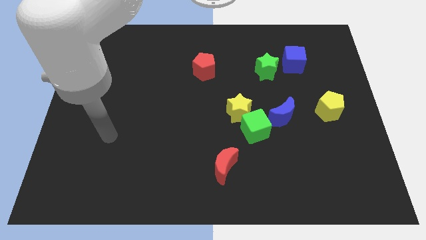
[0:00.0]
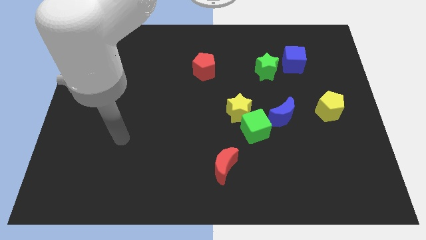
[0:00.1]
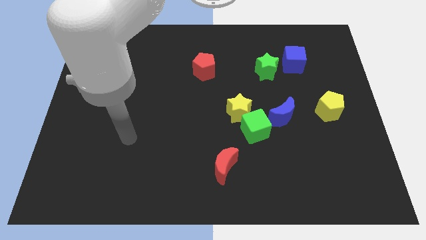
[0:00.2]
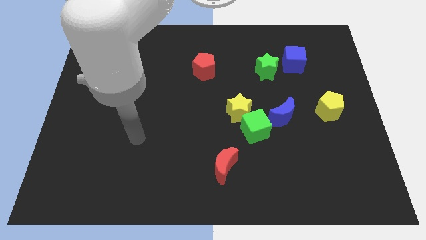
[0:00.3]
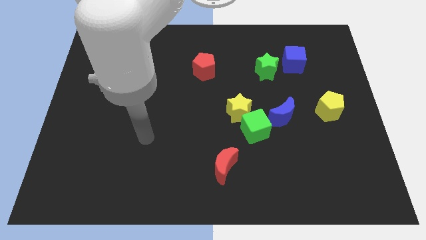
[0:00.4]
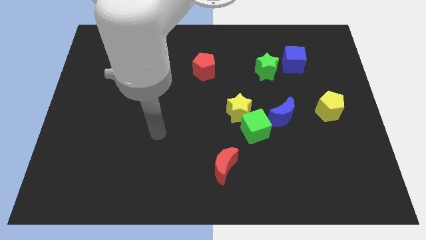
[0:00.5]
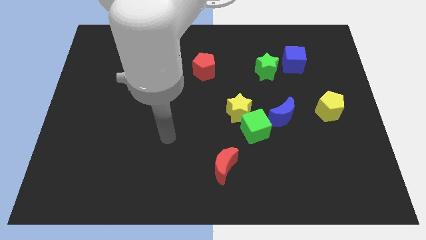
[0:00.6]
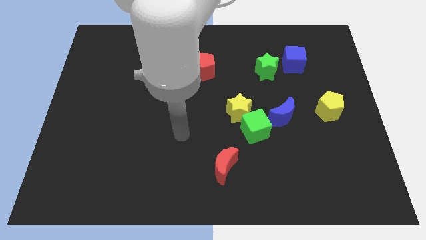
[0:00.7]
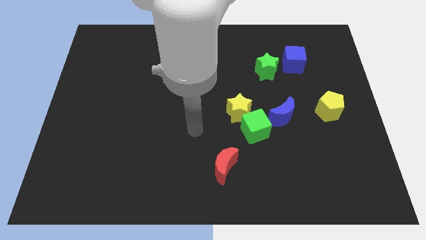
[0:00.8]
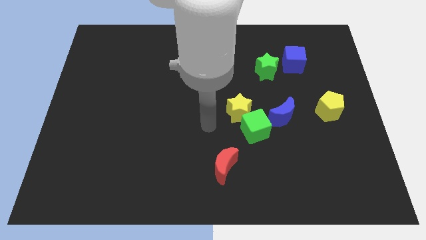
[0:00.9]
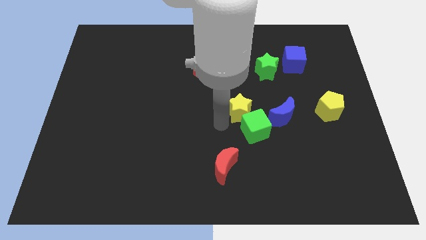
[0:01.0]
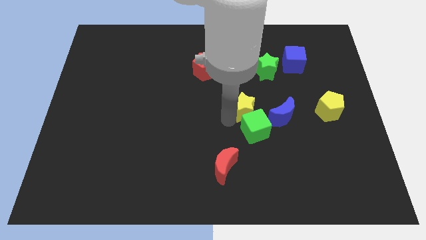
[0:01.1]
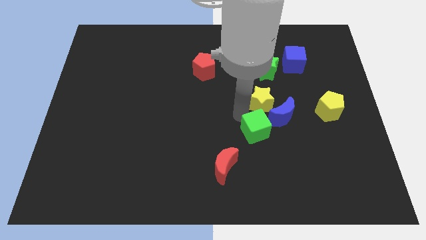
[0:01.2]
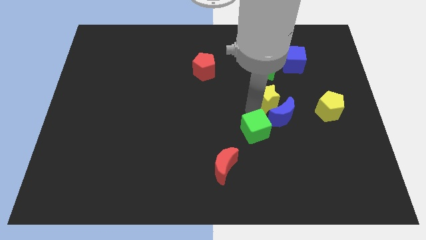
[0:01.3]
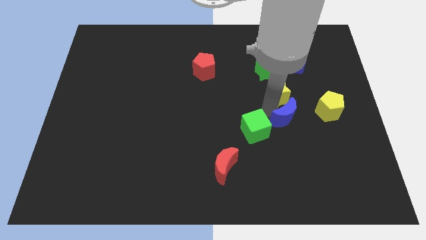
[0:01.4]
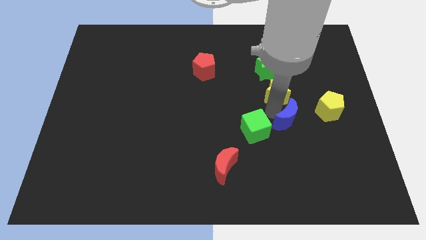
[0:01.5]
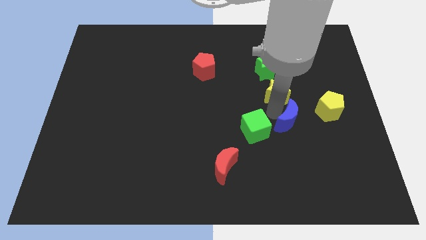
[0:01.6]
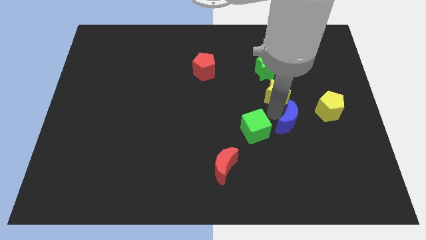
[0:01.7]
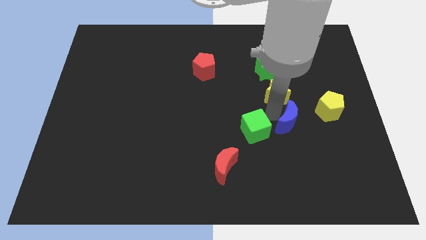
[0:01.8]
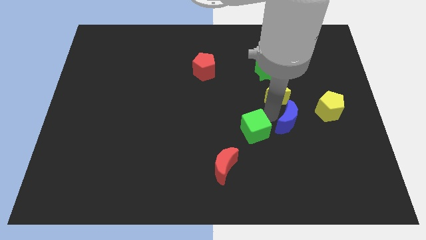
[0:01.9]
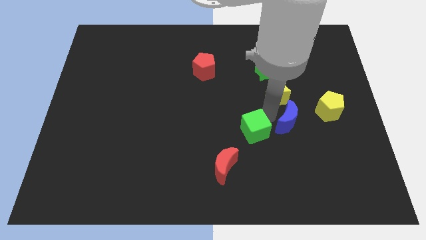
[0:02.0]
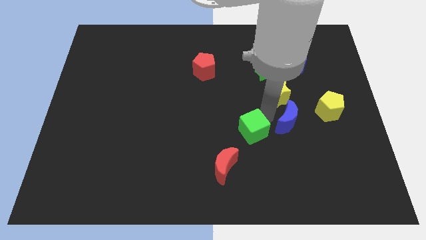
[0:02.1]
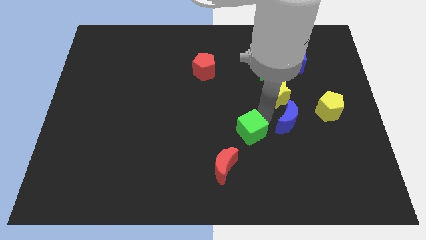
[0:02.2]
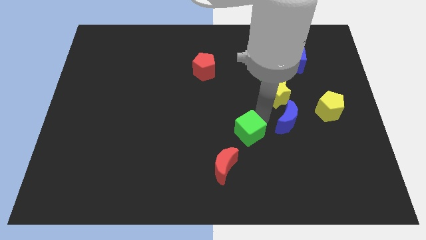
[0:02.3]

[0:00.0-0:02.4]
pull the green cube apart from the yellow star and blue moon

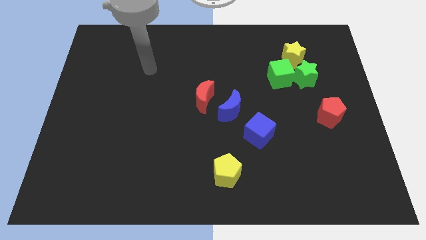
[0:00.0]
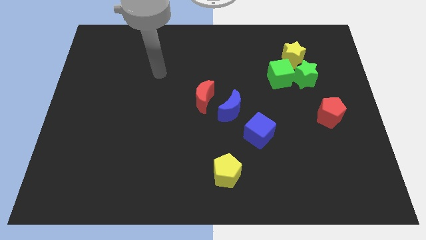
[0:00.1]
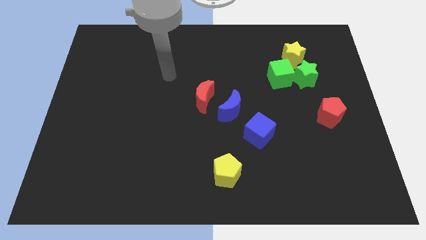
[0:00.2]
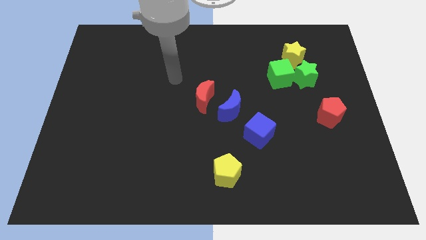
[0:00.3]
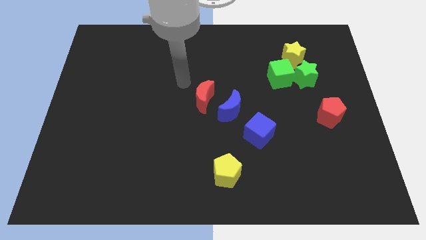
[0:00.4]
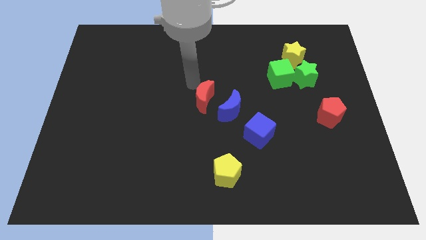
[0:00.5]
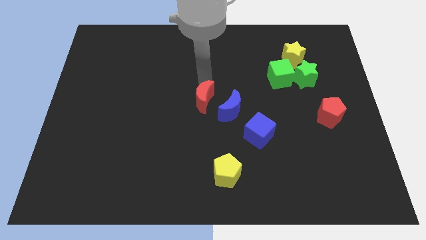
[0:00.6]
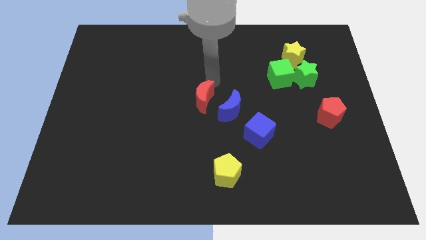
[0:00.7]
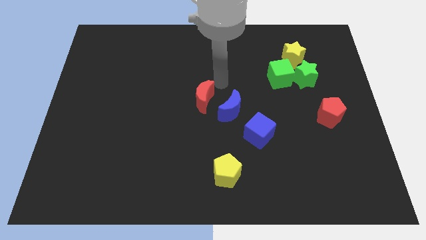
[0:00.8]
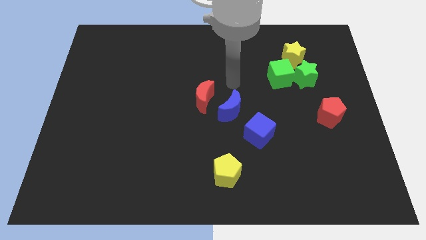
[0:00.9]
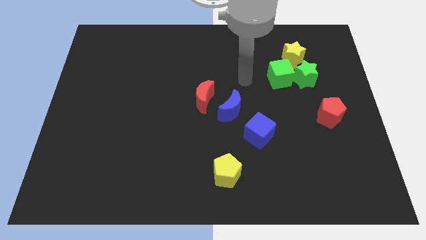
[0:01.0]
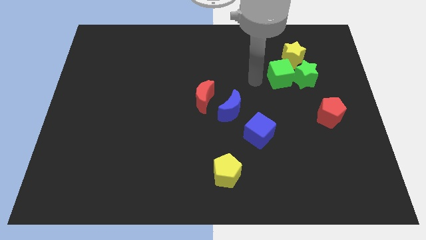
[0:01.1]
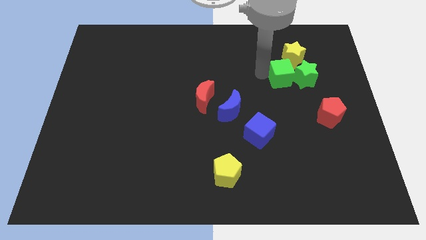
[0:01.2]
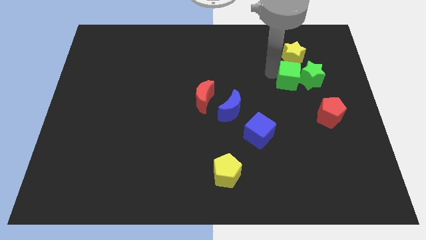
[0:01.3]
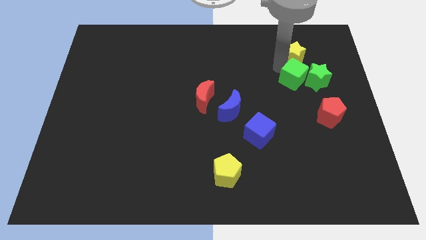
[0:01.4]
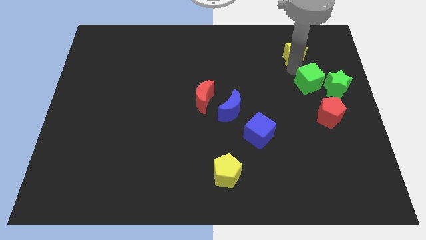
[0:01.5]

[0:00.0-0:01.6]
pull the green star apart from the green cube and yellow star

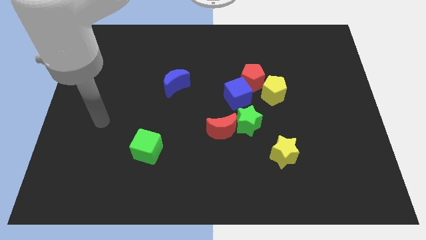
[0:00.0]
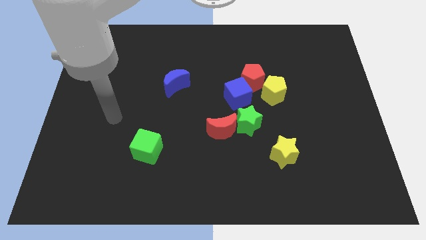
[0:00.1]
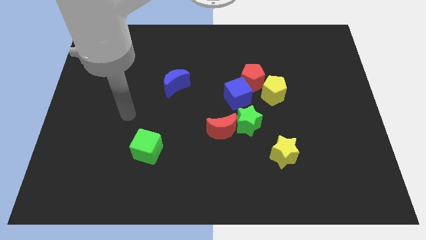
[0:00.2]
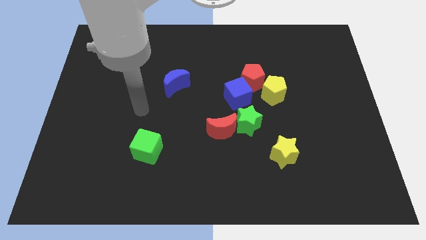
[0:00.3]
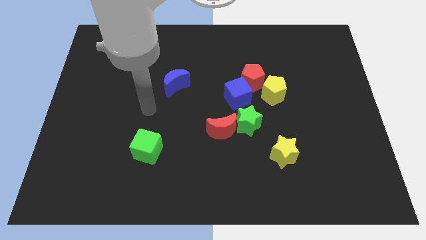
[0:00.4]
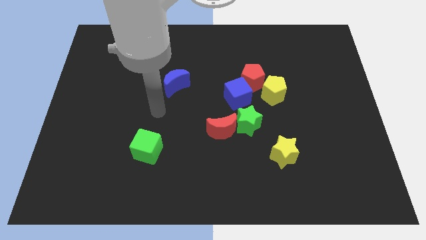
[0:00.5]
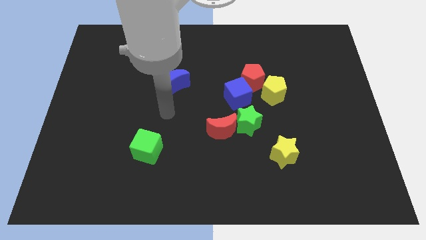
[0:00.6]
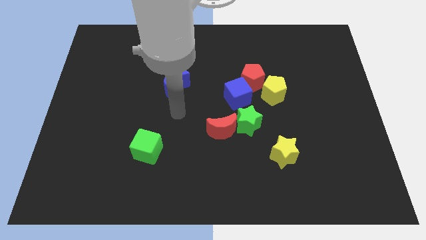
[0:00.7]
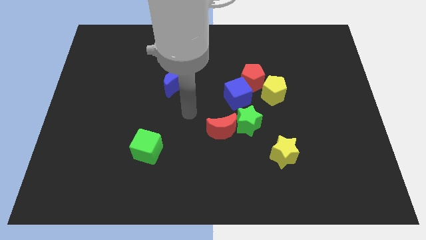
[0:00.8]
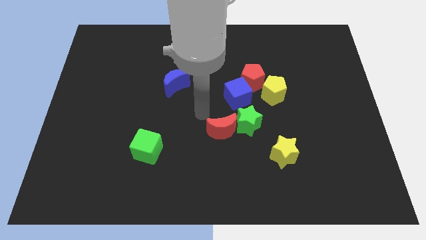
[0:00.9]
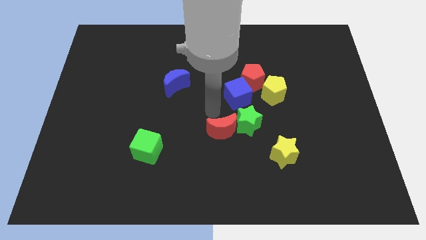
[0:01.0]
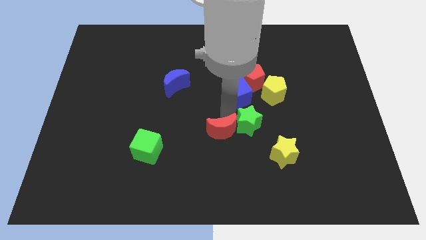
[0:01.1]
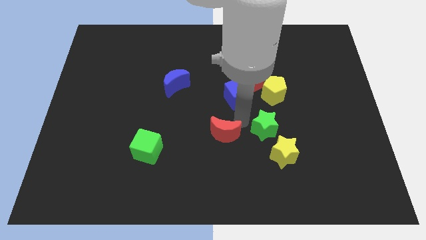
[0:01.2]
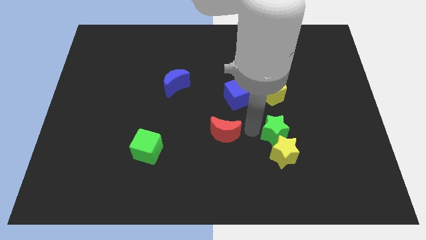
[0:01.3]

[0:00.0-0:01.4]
pull the red moon apart from the green star

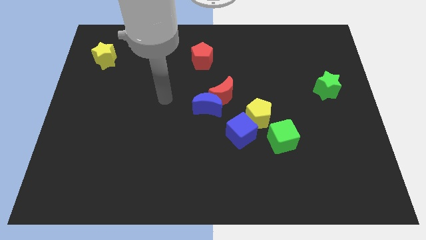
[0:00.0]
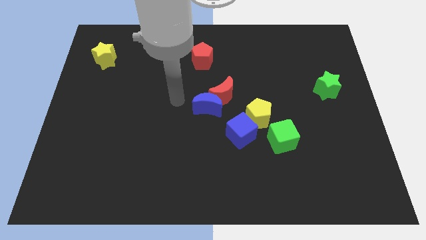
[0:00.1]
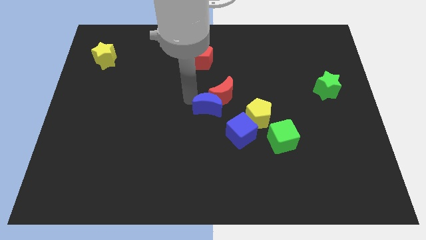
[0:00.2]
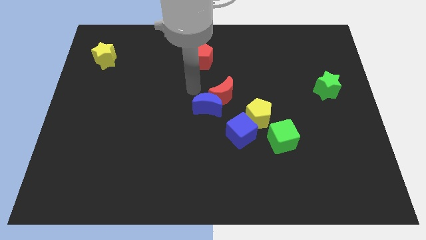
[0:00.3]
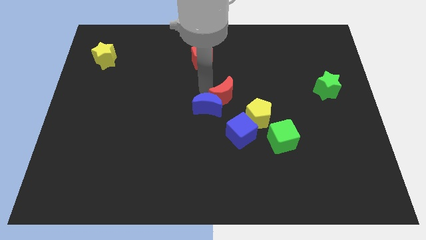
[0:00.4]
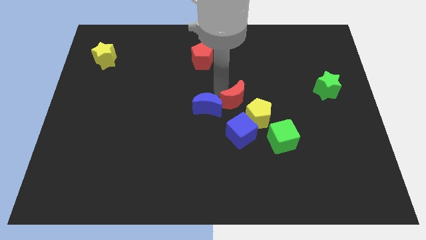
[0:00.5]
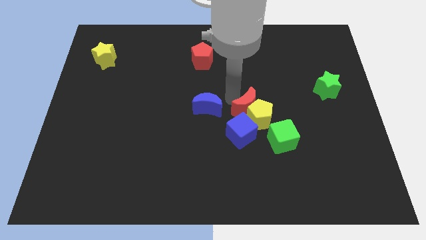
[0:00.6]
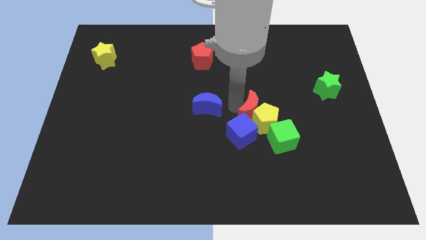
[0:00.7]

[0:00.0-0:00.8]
pull the blue moon apart from the red moon

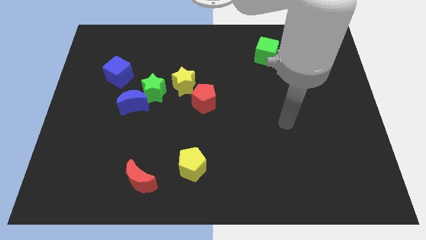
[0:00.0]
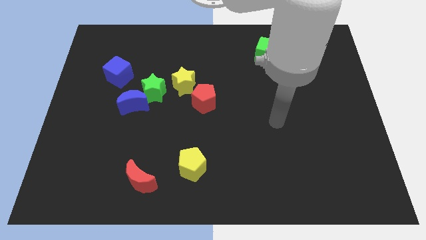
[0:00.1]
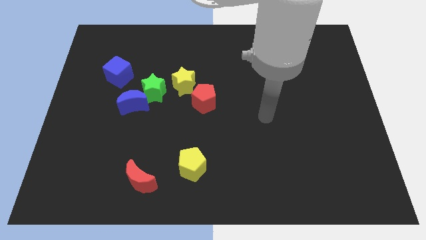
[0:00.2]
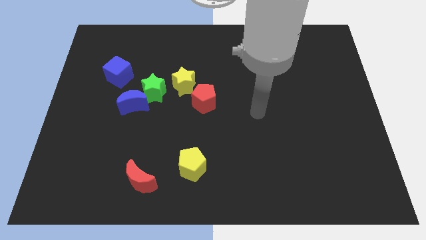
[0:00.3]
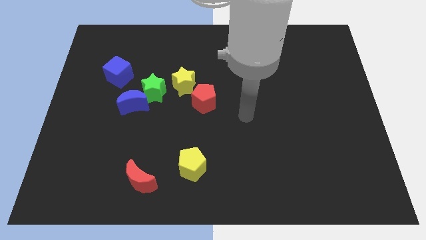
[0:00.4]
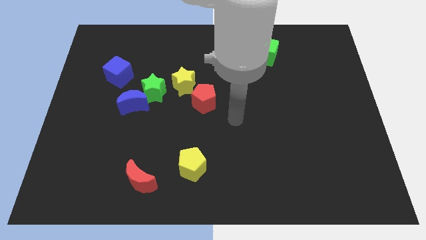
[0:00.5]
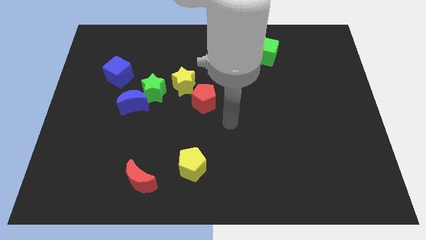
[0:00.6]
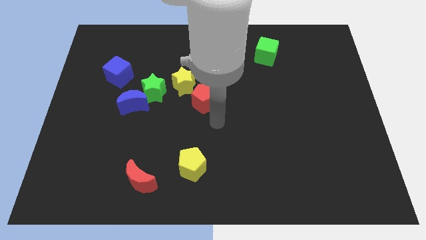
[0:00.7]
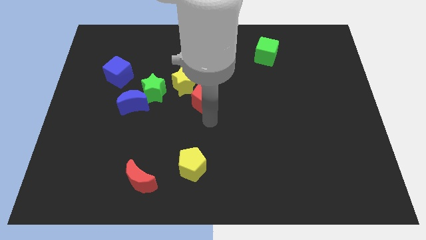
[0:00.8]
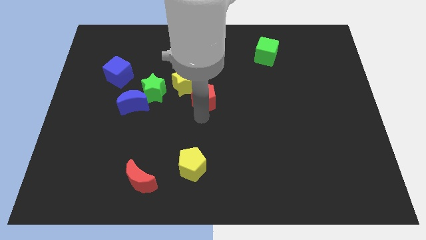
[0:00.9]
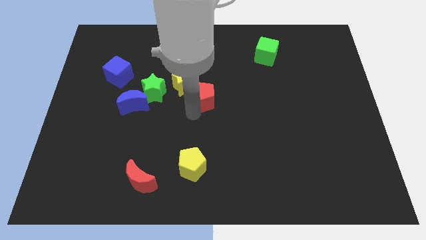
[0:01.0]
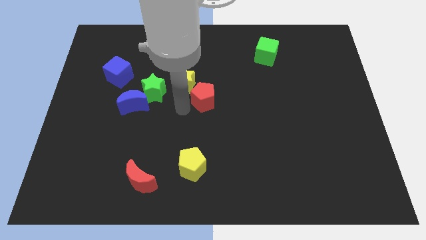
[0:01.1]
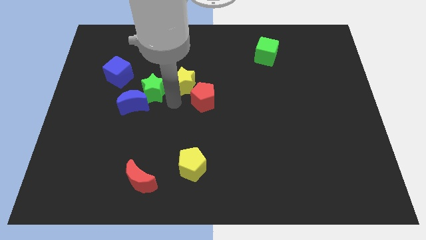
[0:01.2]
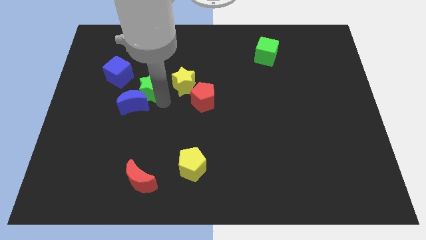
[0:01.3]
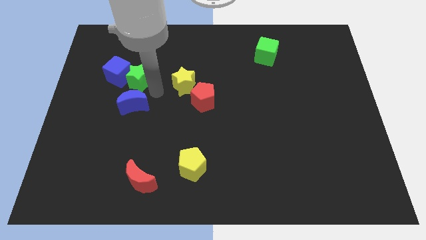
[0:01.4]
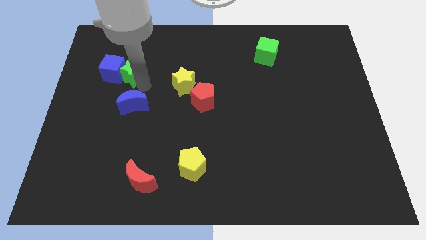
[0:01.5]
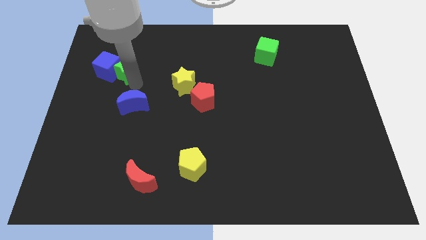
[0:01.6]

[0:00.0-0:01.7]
move the blue moon away from the green star

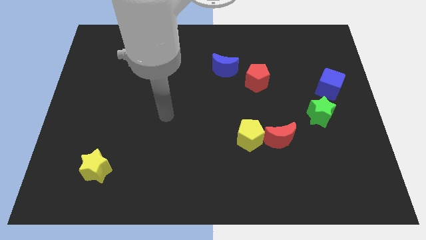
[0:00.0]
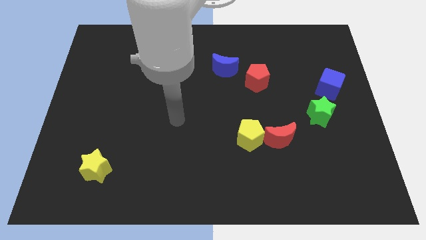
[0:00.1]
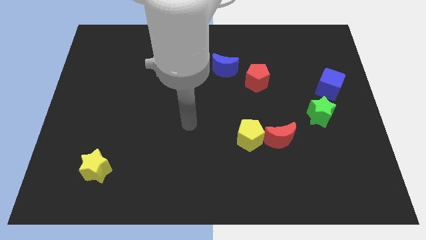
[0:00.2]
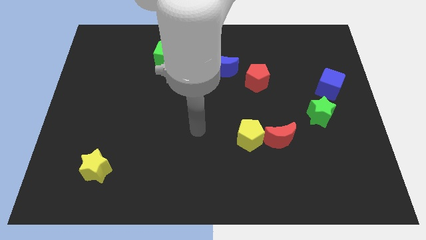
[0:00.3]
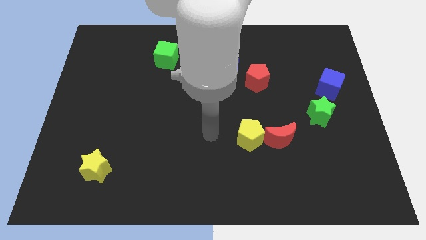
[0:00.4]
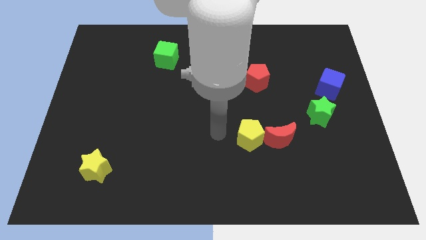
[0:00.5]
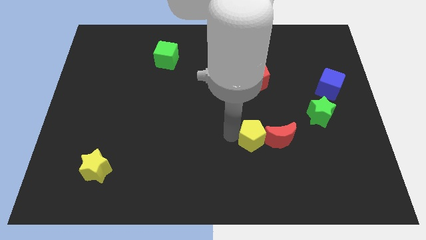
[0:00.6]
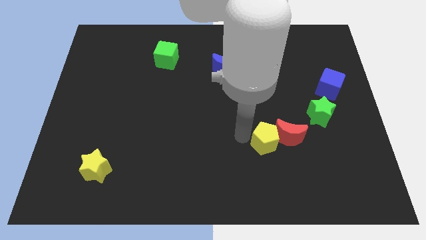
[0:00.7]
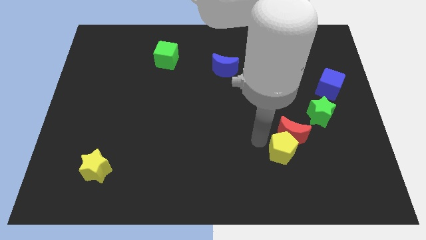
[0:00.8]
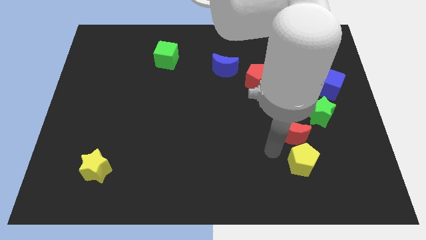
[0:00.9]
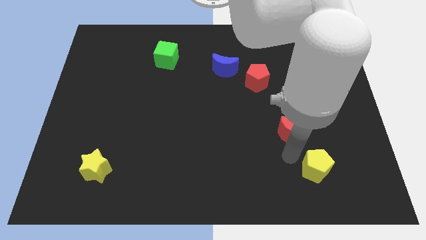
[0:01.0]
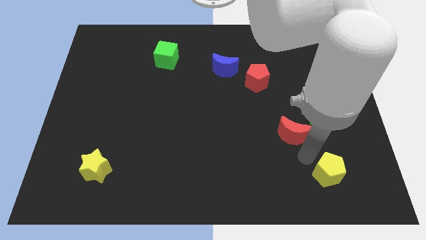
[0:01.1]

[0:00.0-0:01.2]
pull the red moon apart from the yellow pentagon

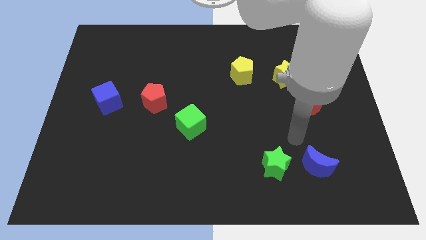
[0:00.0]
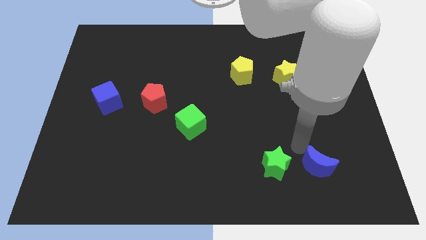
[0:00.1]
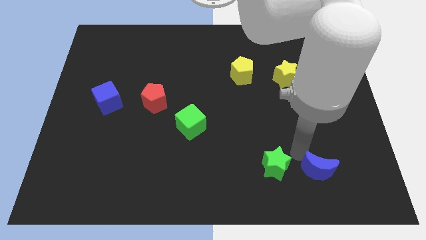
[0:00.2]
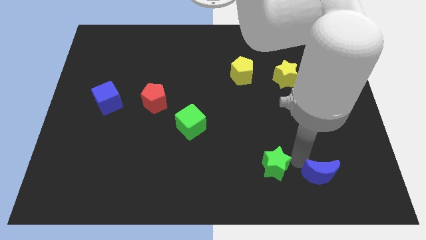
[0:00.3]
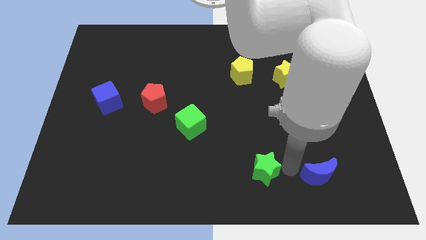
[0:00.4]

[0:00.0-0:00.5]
pull the blue moon apart from the green star
